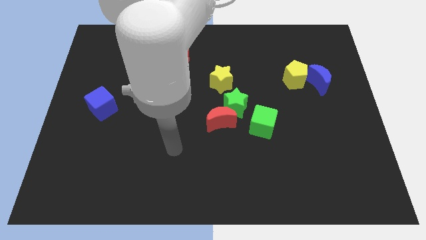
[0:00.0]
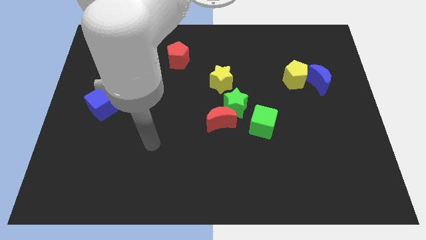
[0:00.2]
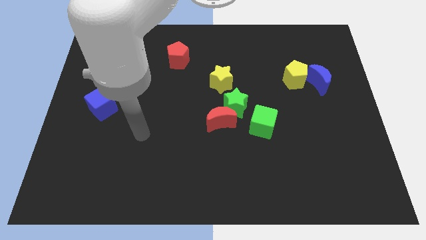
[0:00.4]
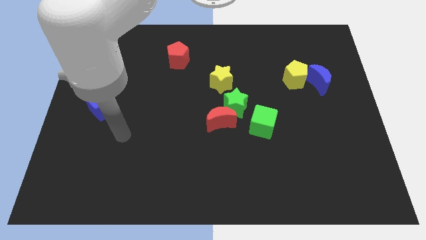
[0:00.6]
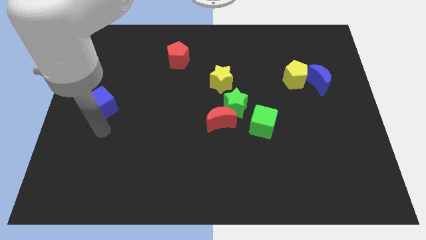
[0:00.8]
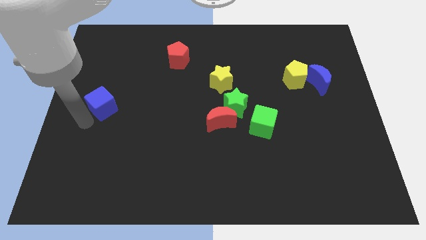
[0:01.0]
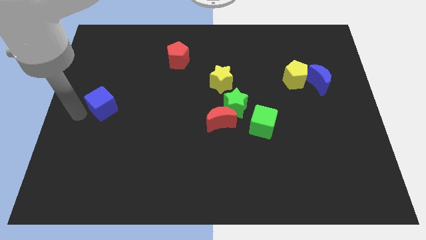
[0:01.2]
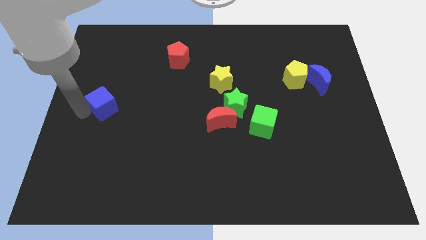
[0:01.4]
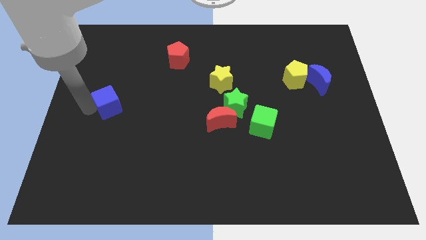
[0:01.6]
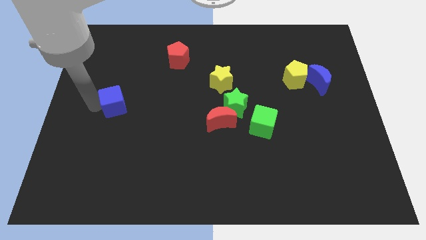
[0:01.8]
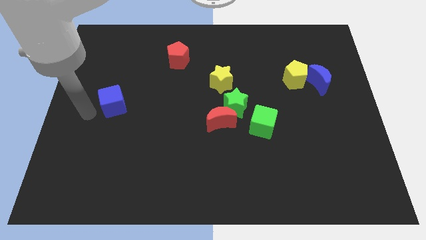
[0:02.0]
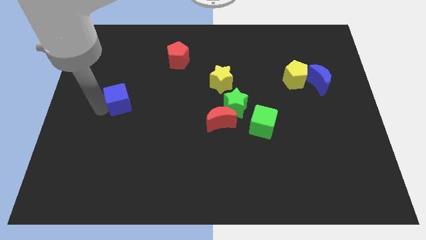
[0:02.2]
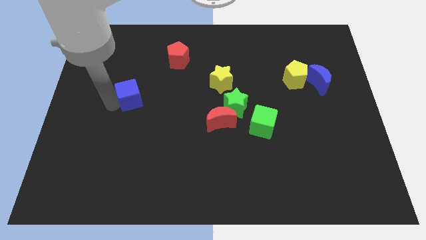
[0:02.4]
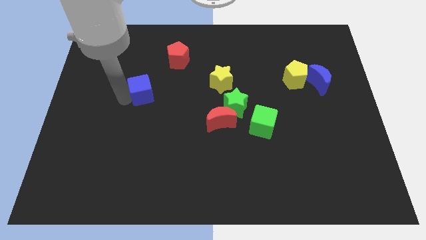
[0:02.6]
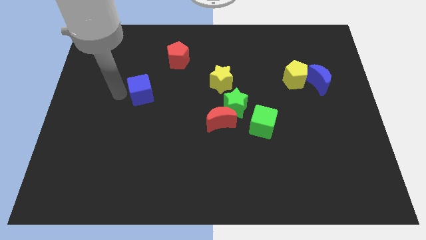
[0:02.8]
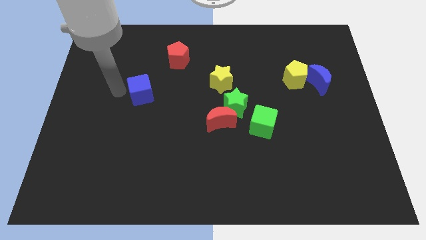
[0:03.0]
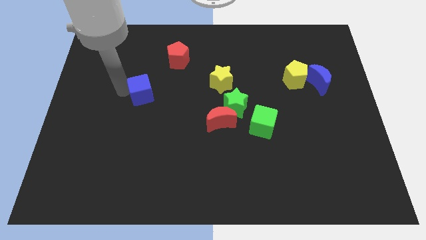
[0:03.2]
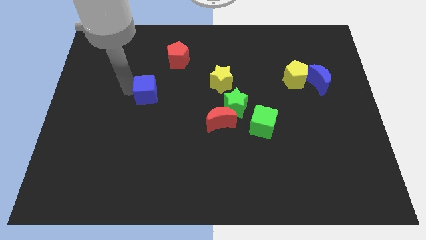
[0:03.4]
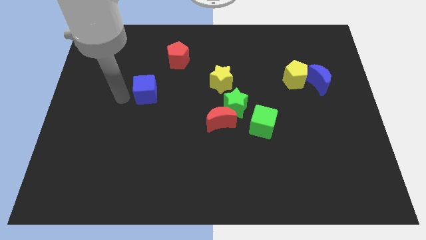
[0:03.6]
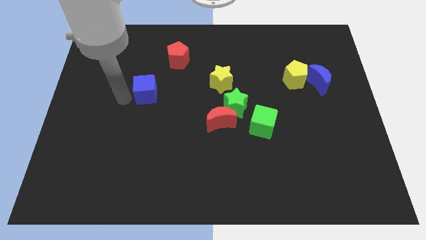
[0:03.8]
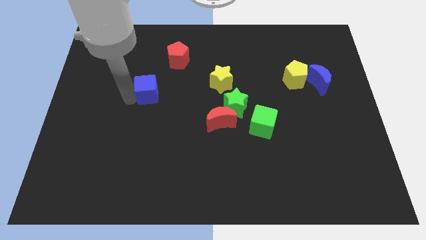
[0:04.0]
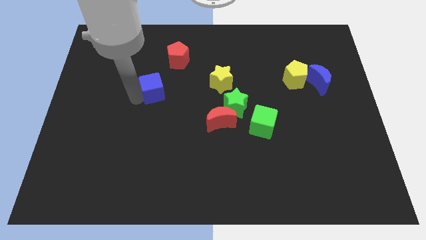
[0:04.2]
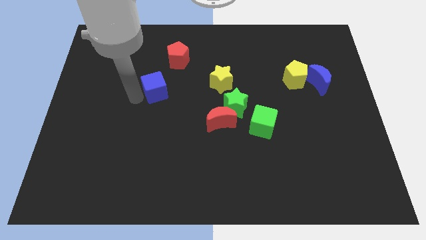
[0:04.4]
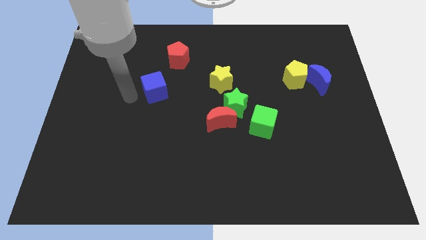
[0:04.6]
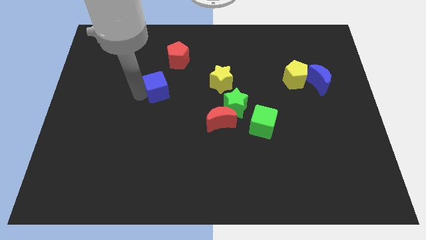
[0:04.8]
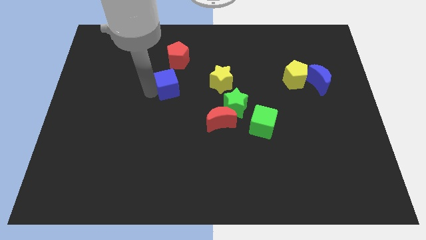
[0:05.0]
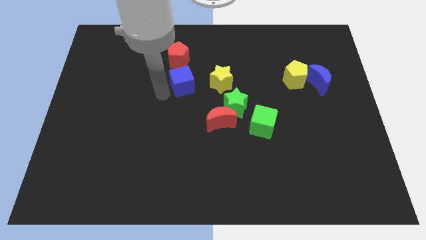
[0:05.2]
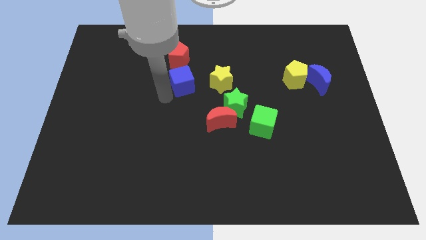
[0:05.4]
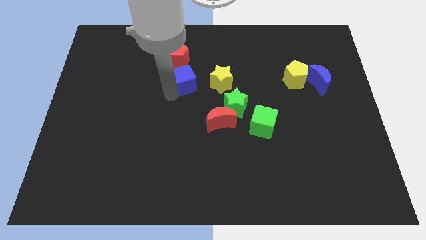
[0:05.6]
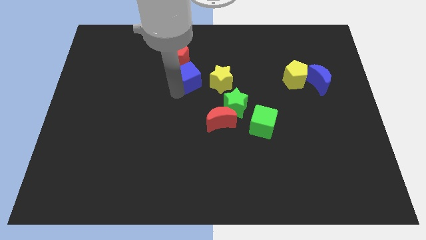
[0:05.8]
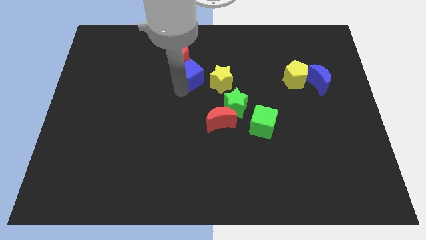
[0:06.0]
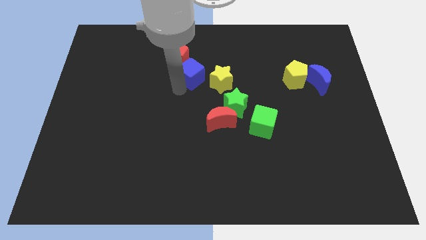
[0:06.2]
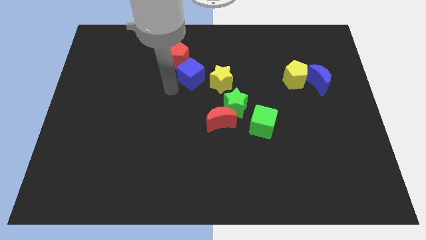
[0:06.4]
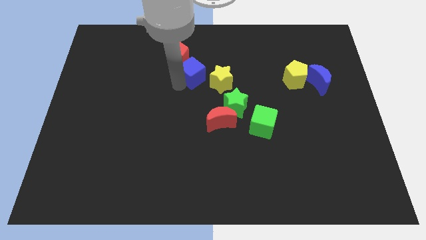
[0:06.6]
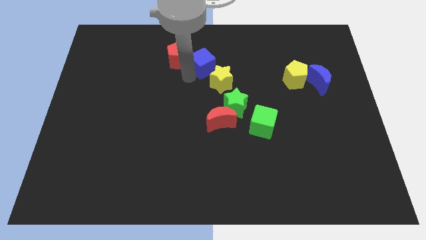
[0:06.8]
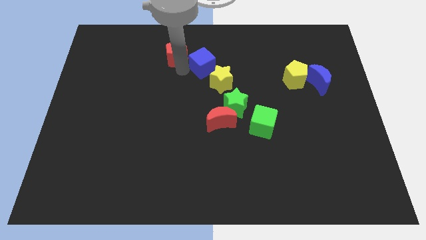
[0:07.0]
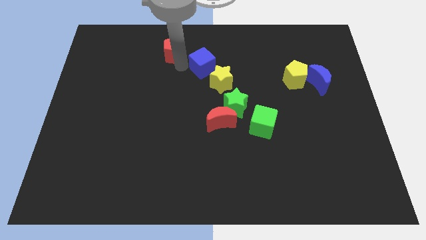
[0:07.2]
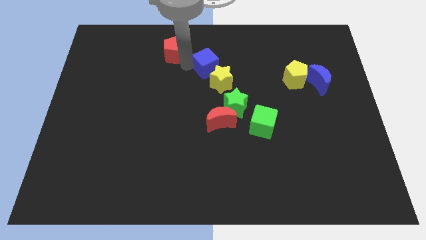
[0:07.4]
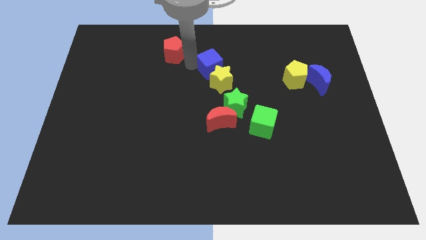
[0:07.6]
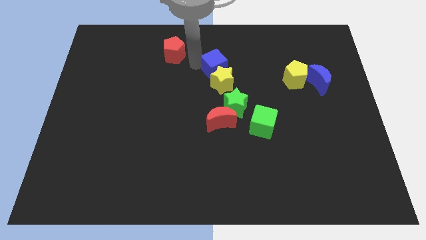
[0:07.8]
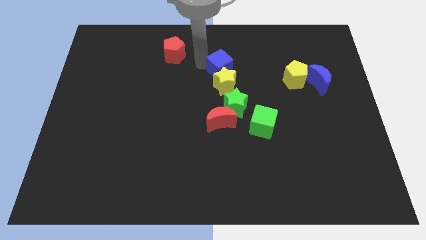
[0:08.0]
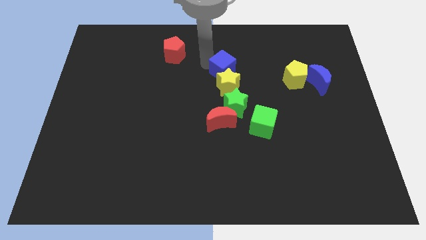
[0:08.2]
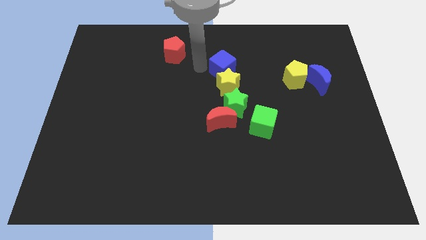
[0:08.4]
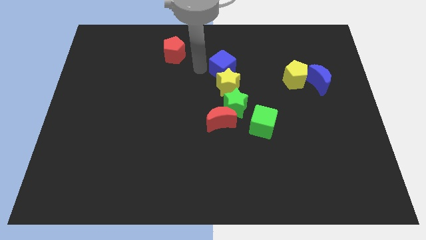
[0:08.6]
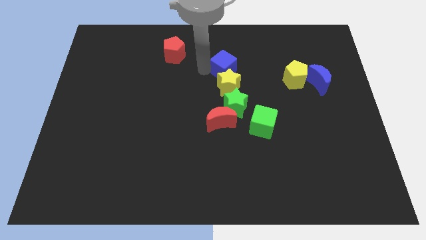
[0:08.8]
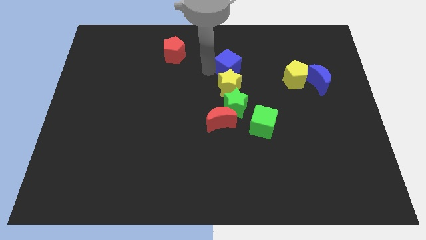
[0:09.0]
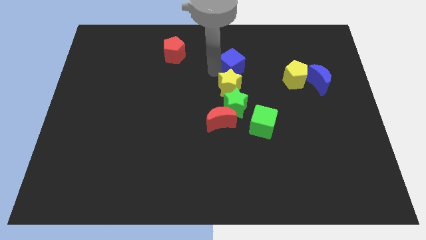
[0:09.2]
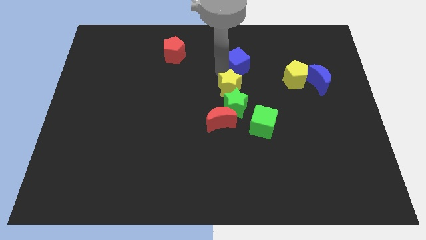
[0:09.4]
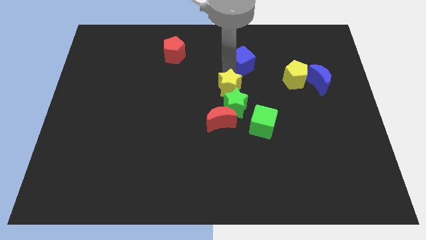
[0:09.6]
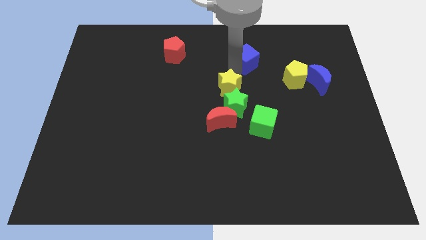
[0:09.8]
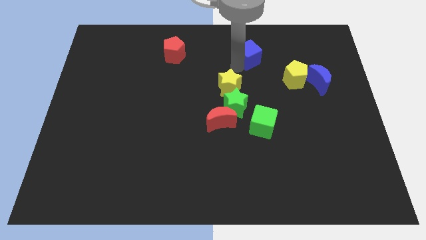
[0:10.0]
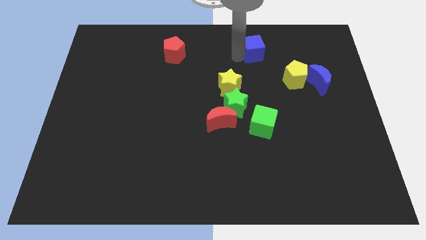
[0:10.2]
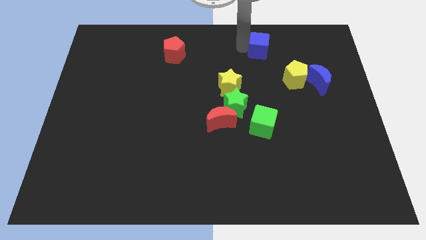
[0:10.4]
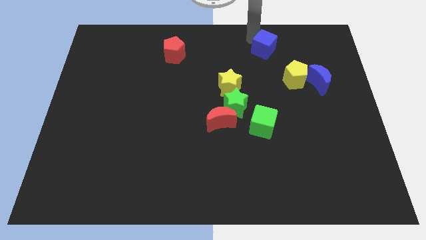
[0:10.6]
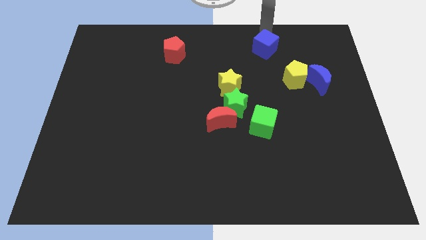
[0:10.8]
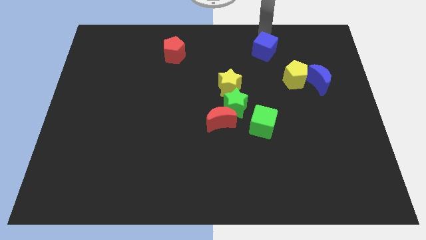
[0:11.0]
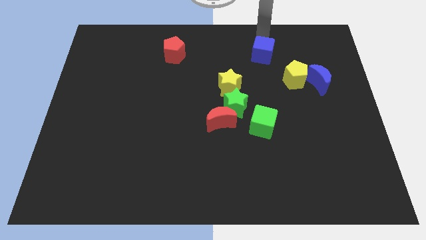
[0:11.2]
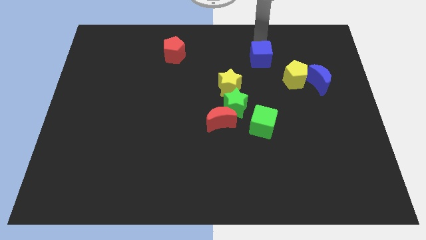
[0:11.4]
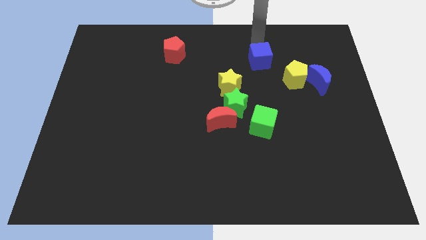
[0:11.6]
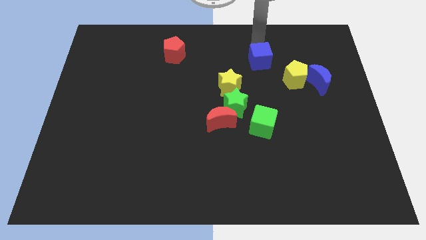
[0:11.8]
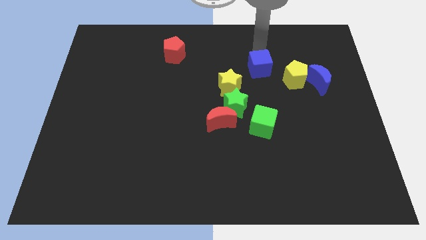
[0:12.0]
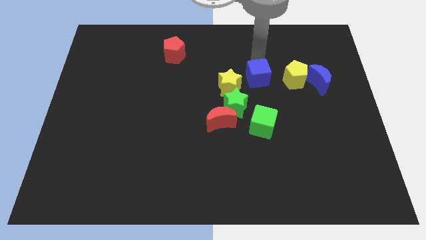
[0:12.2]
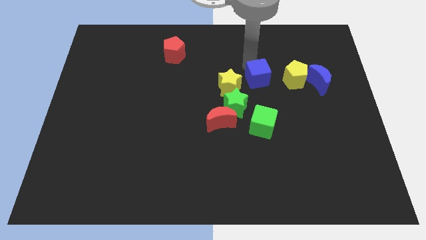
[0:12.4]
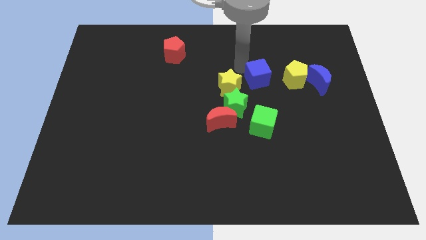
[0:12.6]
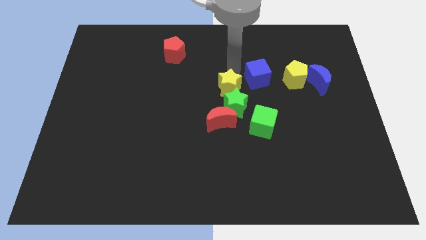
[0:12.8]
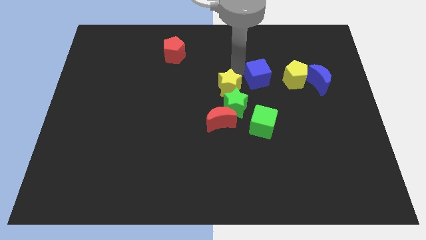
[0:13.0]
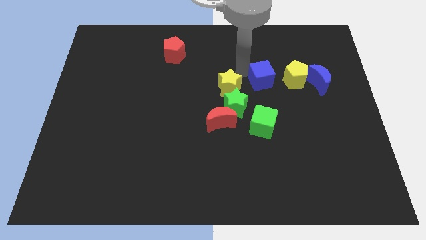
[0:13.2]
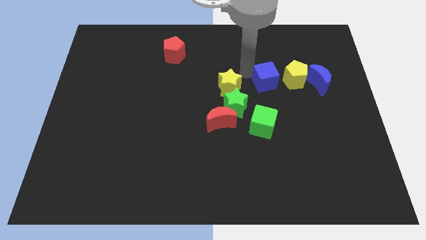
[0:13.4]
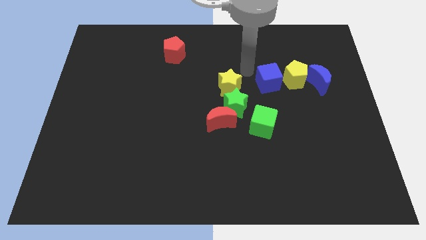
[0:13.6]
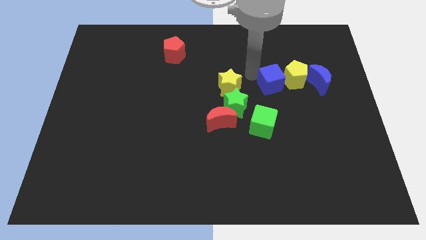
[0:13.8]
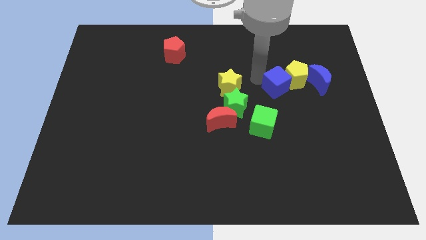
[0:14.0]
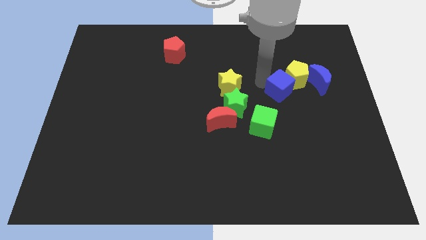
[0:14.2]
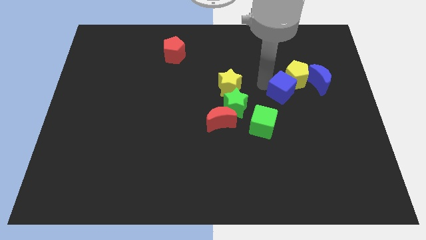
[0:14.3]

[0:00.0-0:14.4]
slide the blue cube to the bottom left of the blue moon

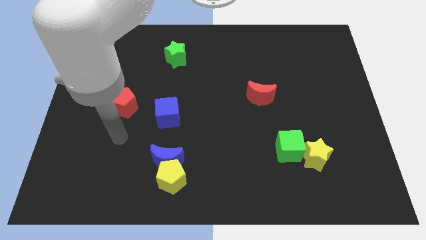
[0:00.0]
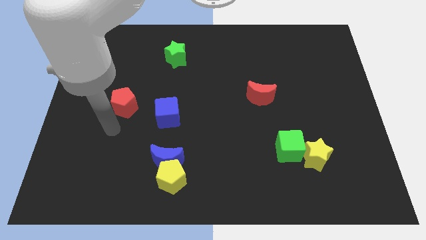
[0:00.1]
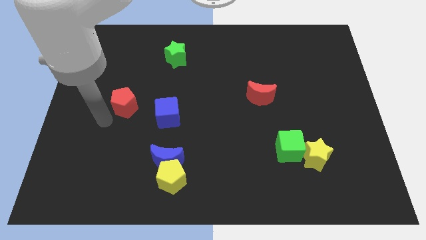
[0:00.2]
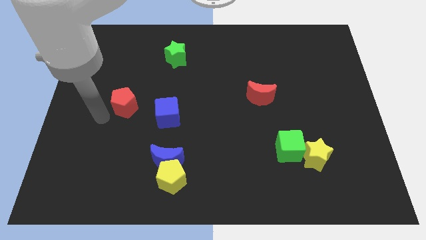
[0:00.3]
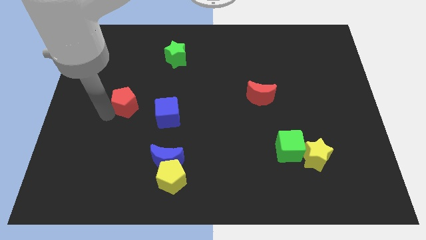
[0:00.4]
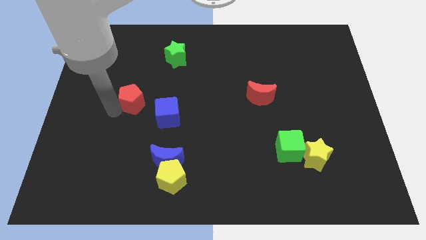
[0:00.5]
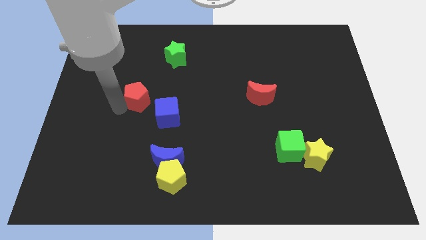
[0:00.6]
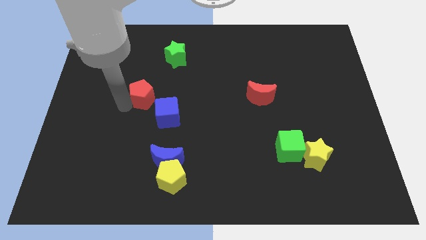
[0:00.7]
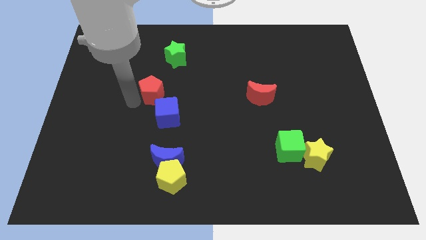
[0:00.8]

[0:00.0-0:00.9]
push the red pentagon to the top of the blue cube
